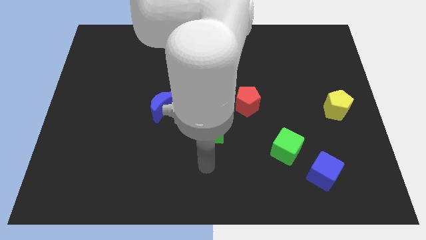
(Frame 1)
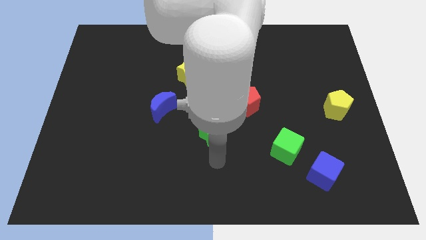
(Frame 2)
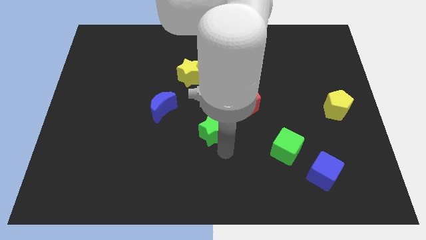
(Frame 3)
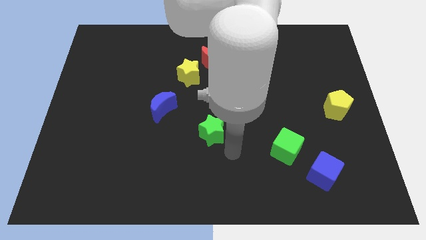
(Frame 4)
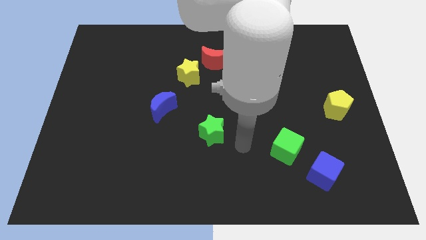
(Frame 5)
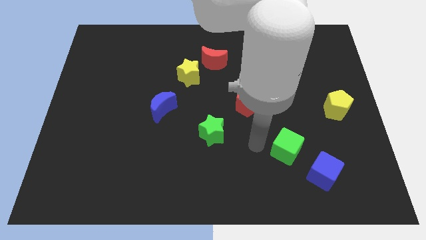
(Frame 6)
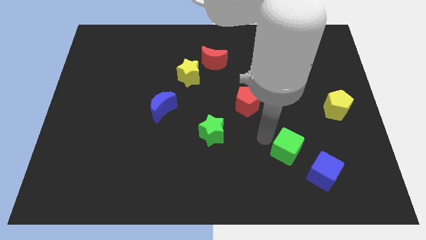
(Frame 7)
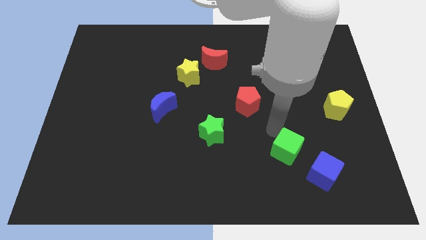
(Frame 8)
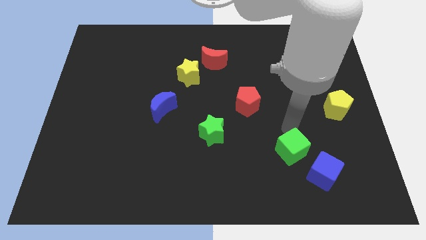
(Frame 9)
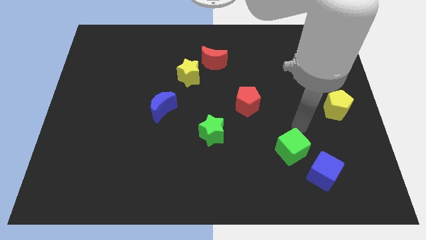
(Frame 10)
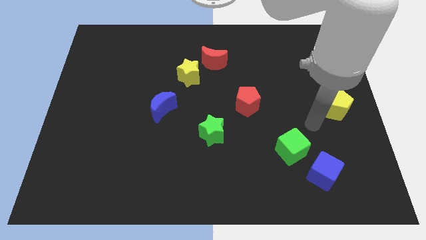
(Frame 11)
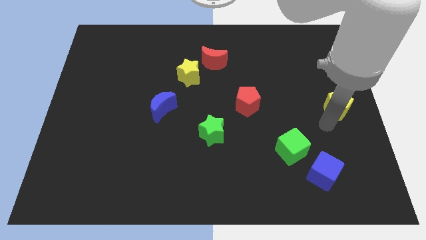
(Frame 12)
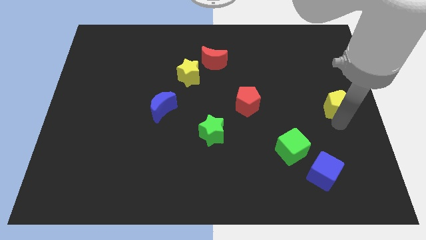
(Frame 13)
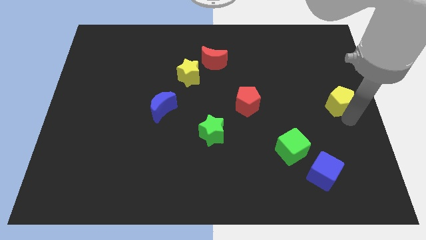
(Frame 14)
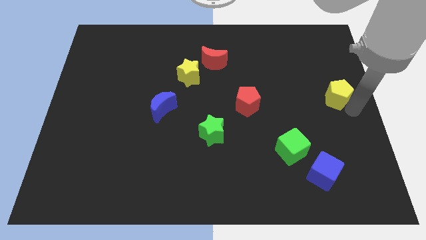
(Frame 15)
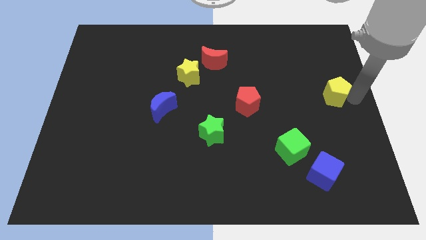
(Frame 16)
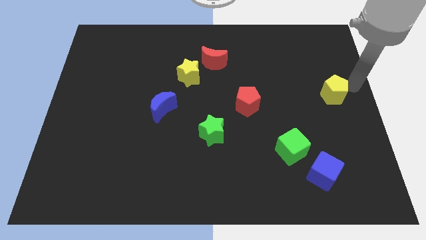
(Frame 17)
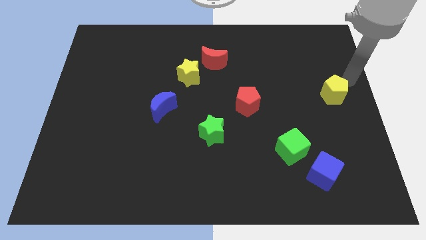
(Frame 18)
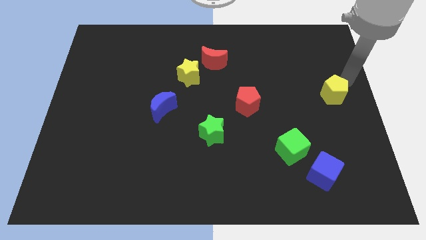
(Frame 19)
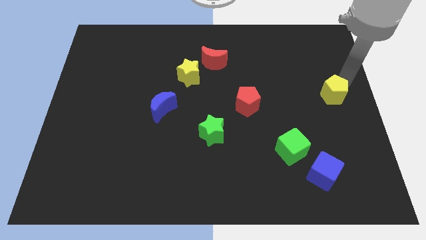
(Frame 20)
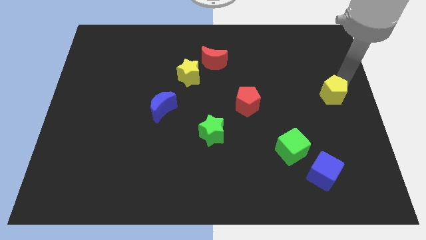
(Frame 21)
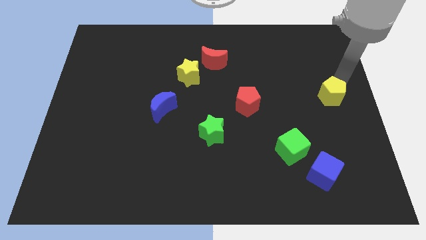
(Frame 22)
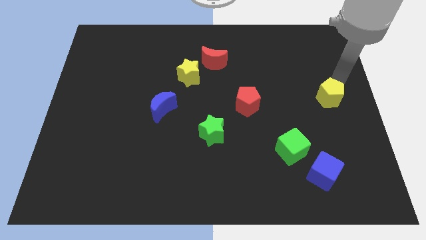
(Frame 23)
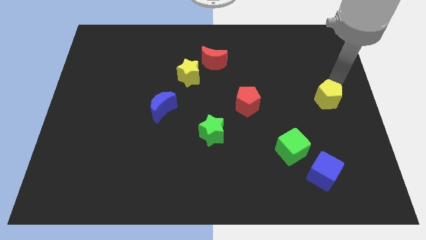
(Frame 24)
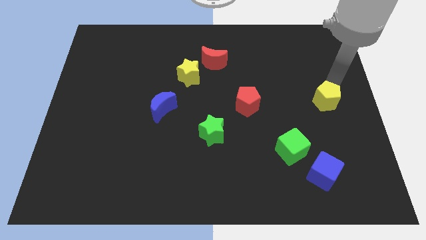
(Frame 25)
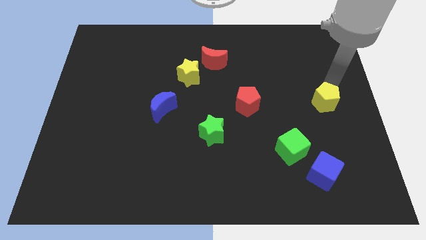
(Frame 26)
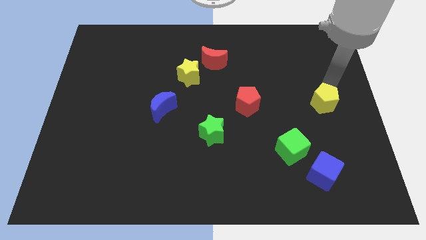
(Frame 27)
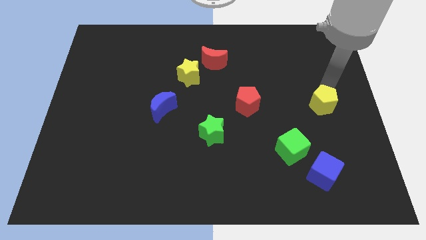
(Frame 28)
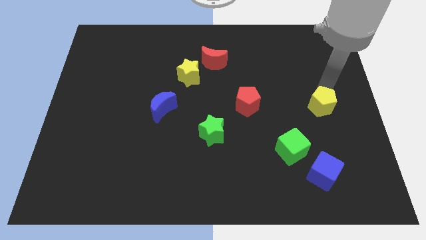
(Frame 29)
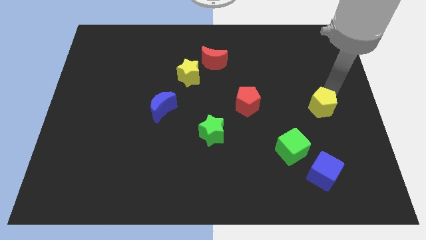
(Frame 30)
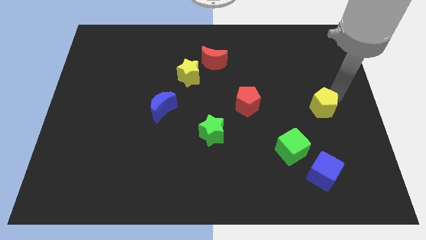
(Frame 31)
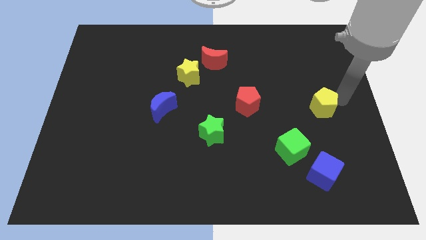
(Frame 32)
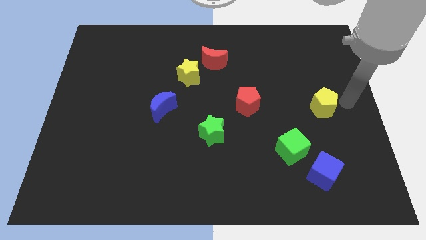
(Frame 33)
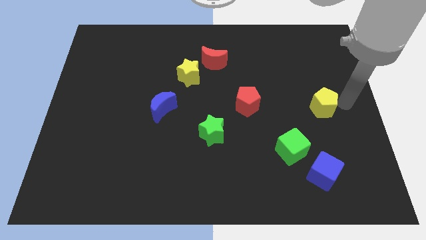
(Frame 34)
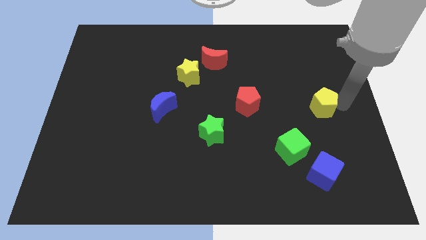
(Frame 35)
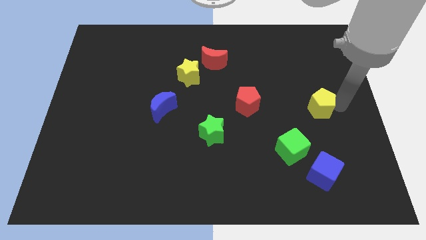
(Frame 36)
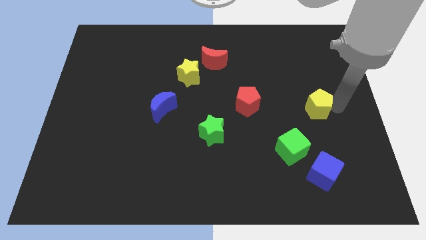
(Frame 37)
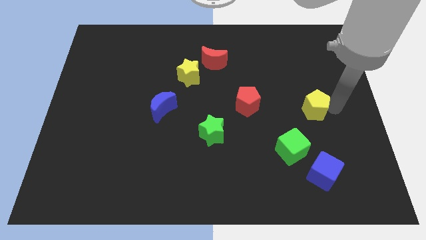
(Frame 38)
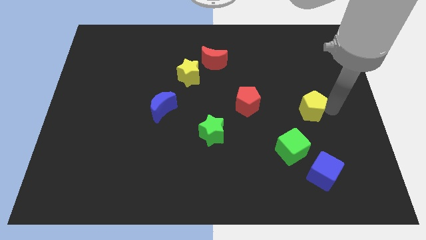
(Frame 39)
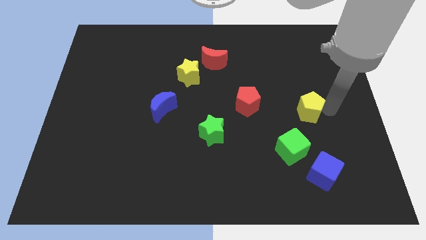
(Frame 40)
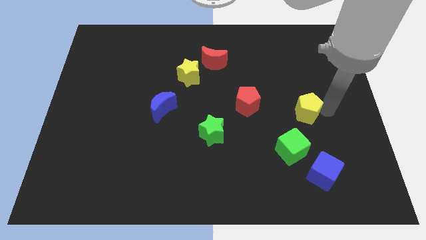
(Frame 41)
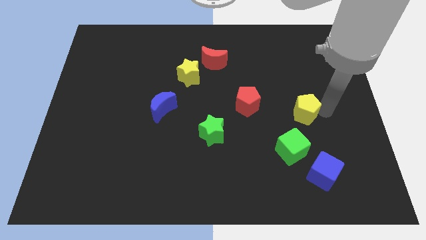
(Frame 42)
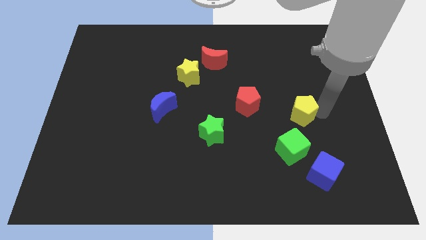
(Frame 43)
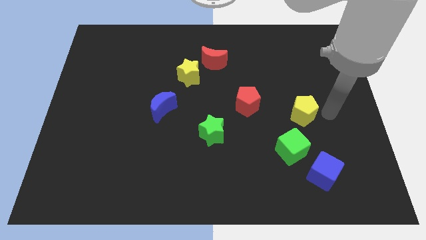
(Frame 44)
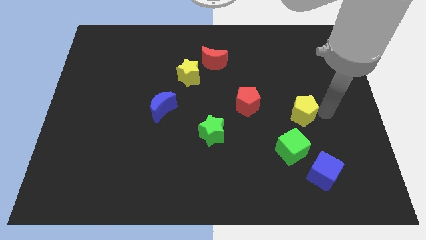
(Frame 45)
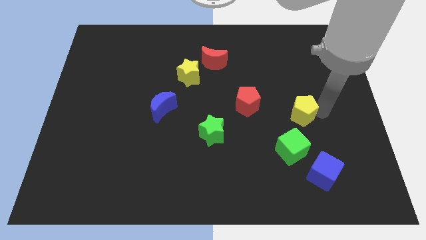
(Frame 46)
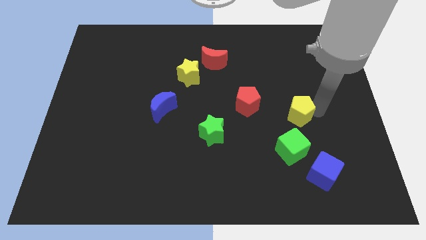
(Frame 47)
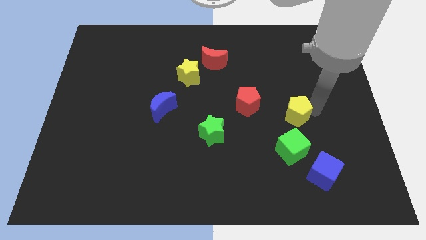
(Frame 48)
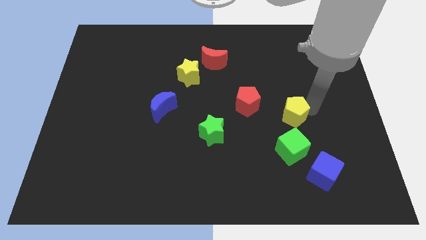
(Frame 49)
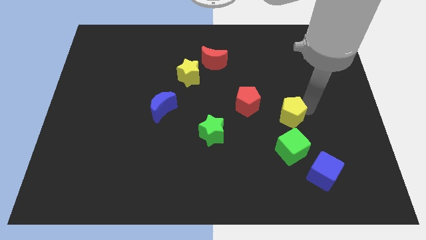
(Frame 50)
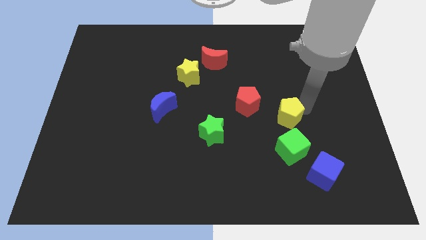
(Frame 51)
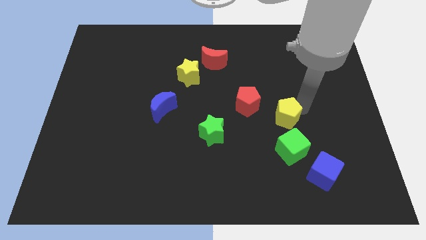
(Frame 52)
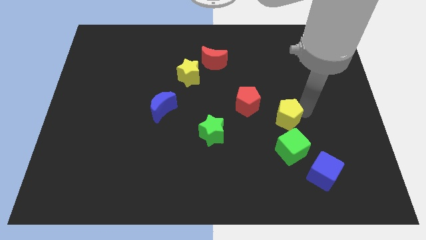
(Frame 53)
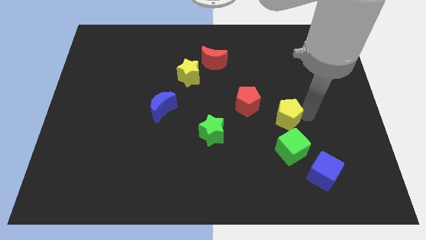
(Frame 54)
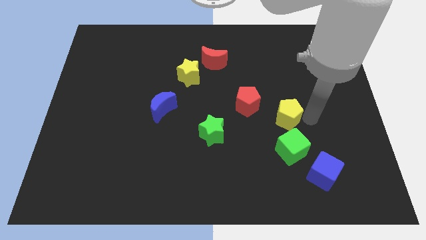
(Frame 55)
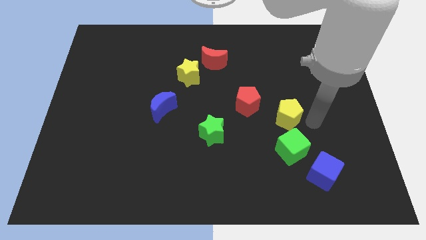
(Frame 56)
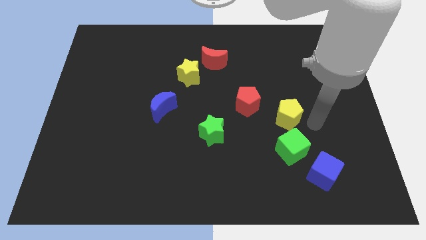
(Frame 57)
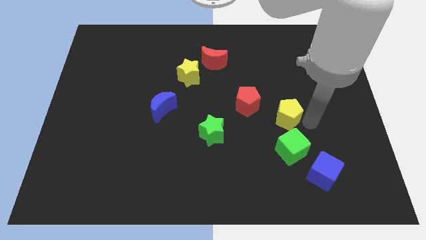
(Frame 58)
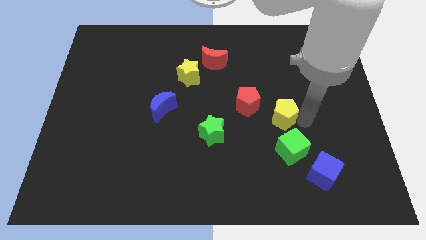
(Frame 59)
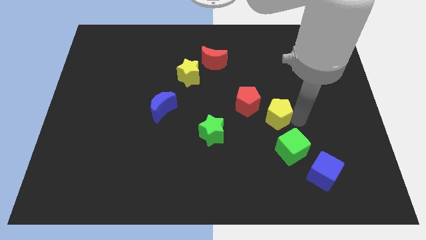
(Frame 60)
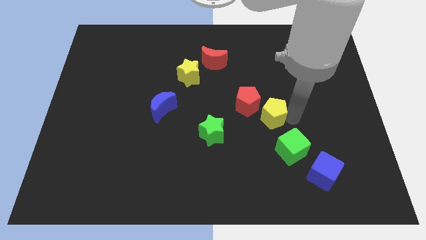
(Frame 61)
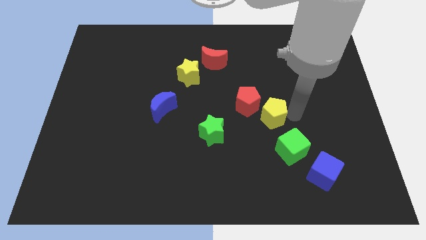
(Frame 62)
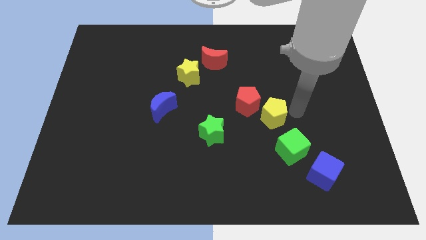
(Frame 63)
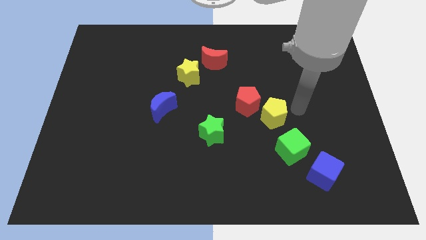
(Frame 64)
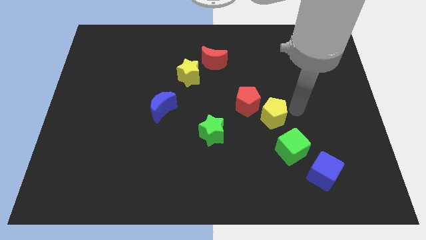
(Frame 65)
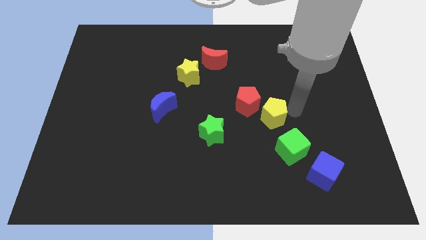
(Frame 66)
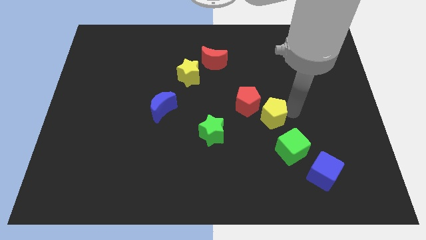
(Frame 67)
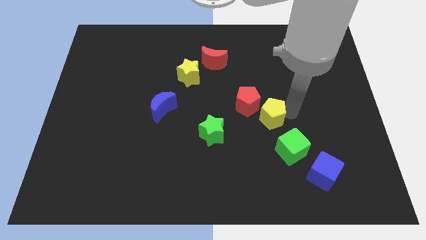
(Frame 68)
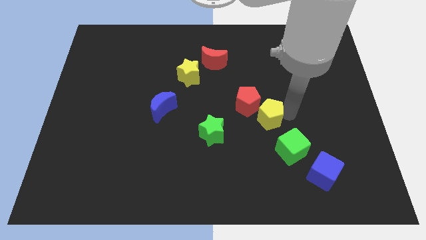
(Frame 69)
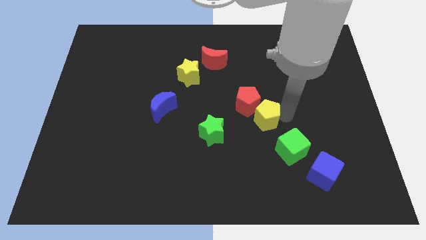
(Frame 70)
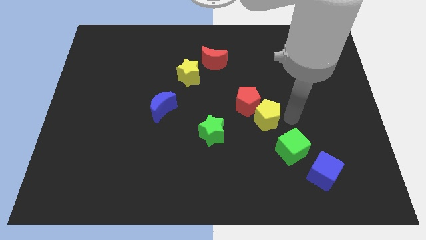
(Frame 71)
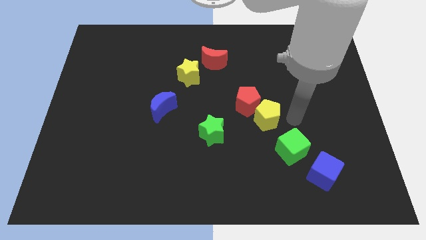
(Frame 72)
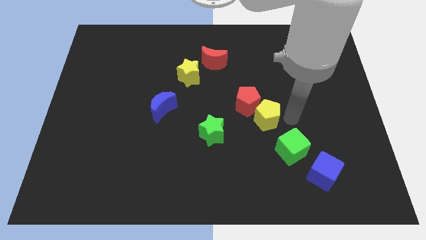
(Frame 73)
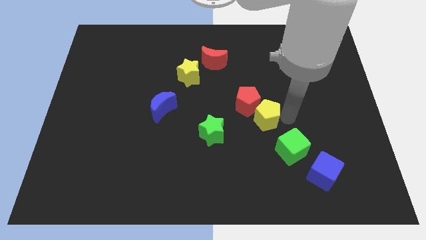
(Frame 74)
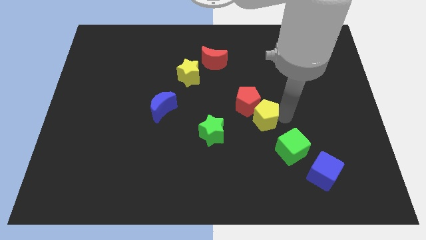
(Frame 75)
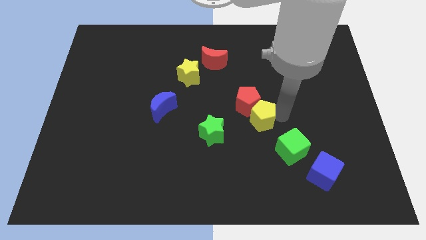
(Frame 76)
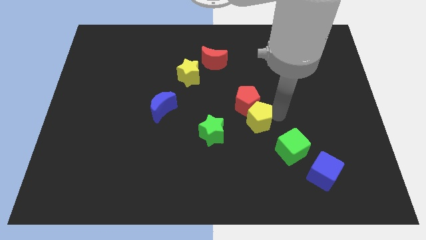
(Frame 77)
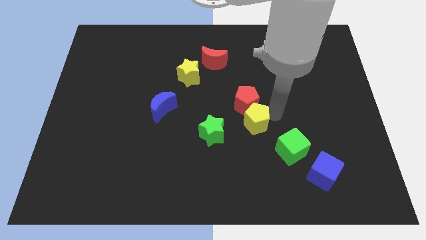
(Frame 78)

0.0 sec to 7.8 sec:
move the yellow pentagon to the top right side of the green star

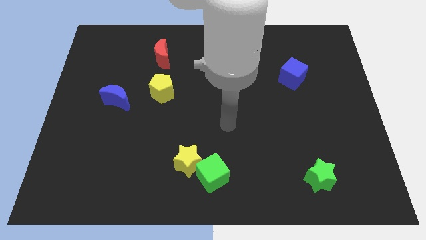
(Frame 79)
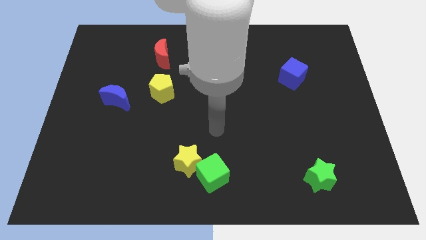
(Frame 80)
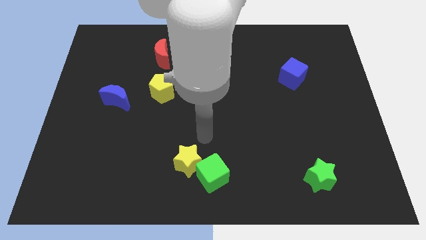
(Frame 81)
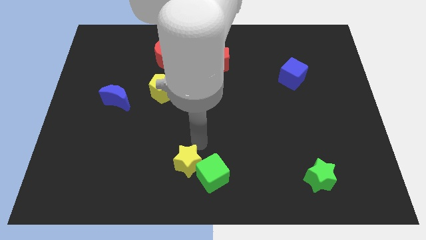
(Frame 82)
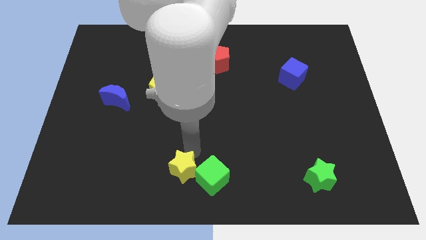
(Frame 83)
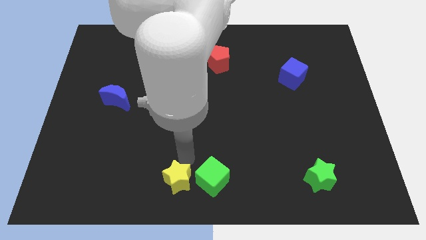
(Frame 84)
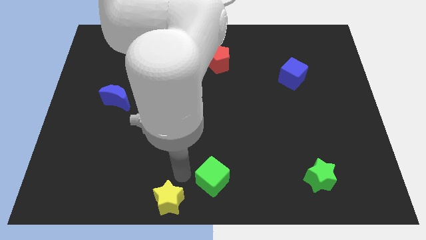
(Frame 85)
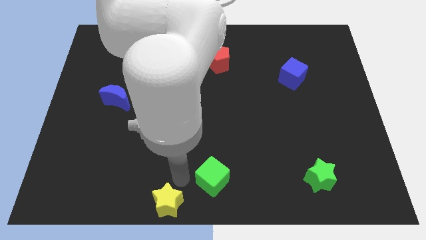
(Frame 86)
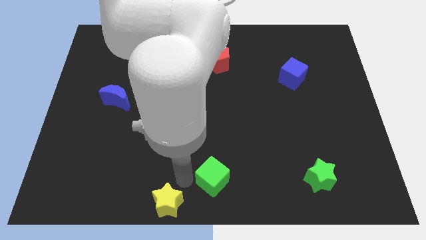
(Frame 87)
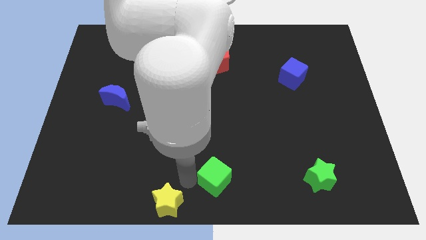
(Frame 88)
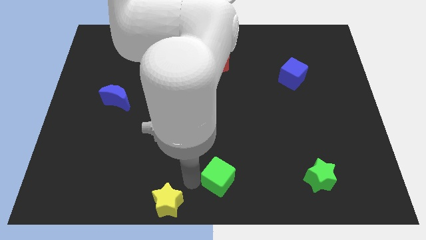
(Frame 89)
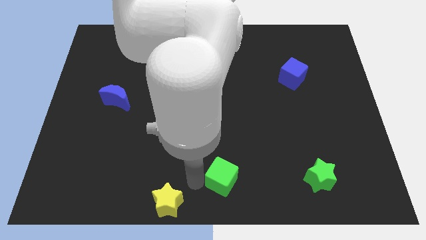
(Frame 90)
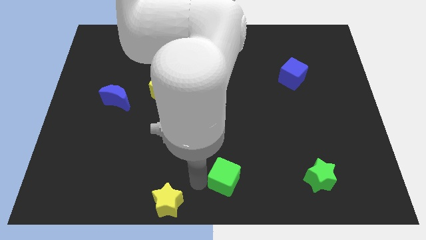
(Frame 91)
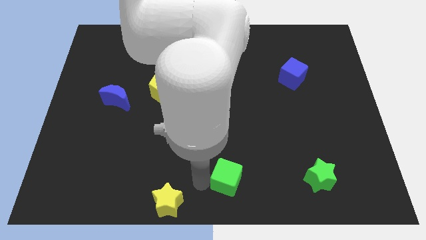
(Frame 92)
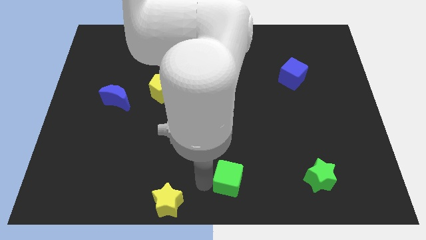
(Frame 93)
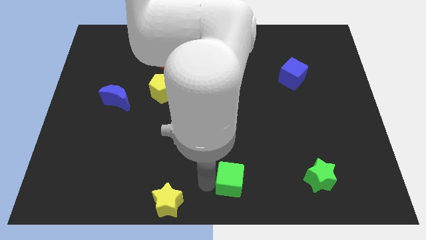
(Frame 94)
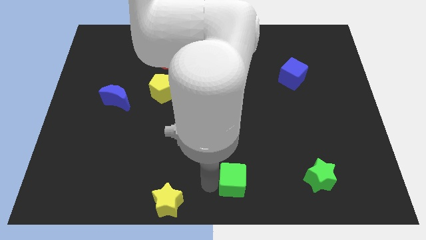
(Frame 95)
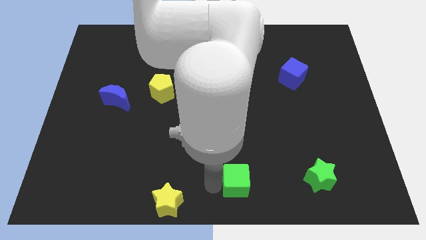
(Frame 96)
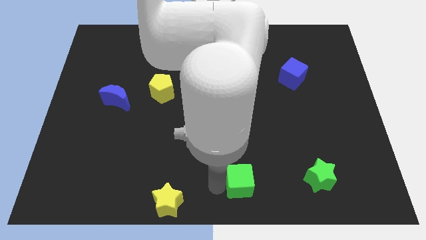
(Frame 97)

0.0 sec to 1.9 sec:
push the green cube just left of the green star
